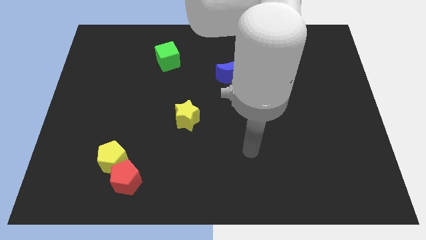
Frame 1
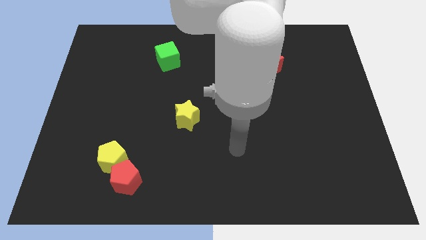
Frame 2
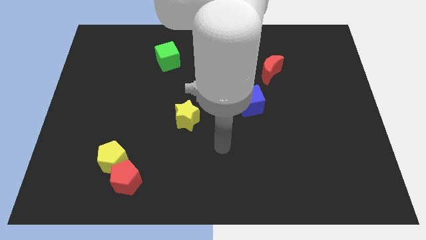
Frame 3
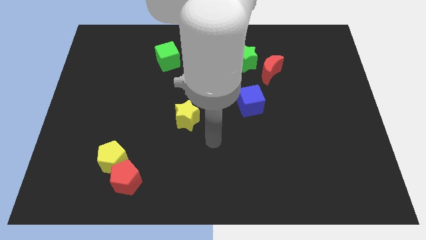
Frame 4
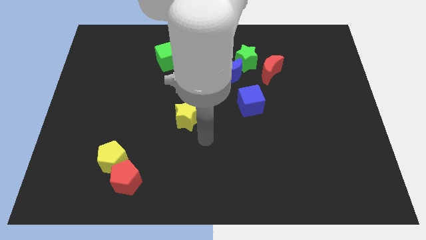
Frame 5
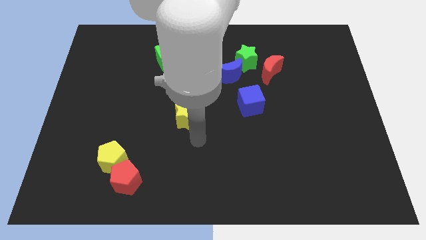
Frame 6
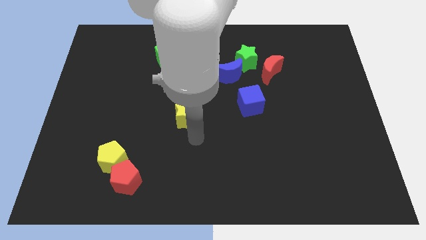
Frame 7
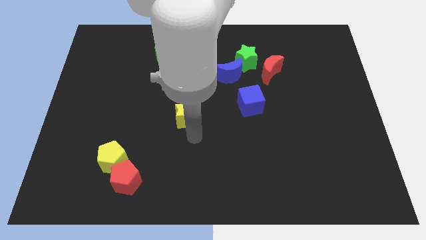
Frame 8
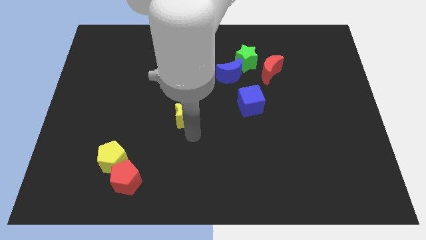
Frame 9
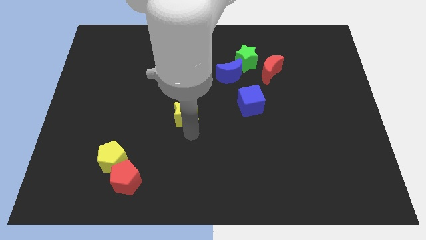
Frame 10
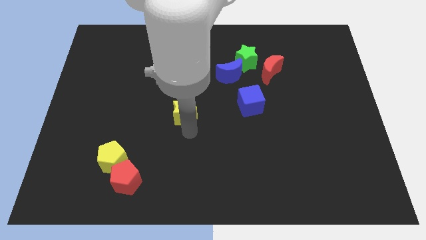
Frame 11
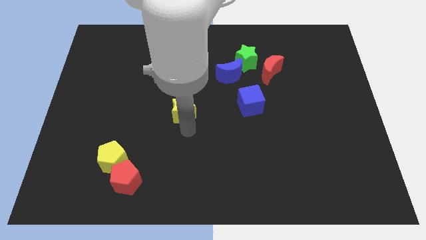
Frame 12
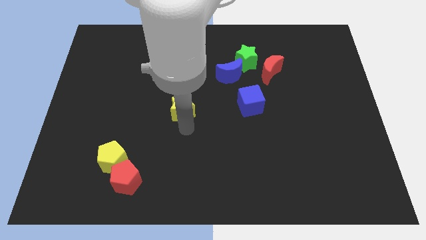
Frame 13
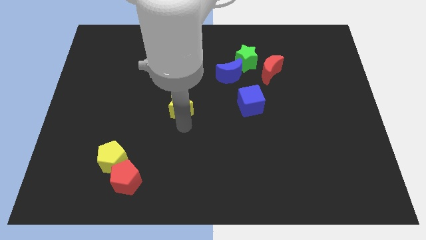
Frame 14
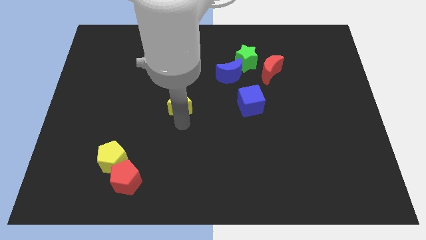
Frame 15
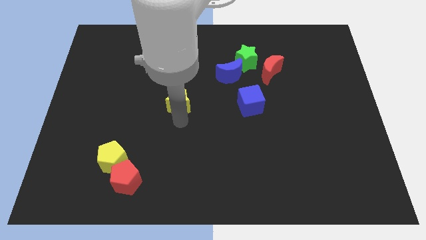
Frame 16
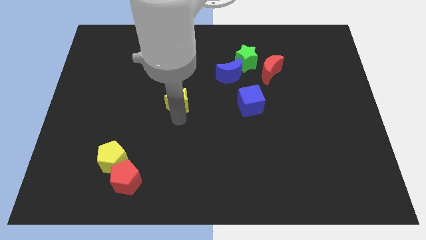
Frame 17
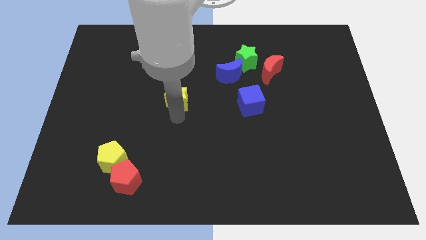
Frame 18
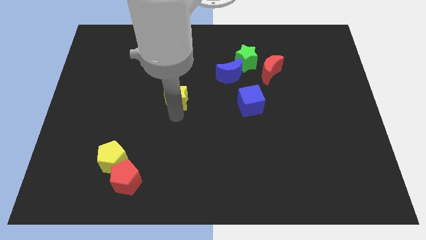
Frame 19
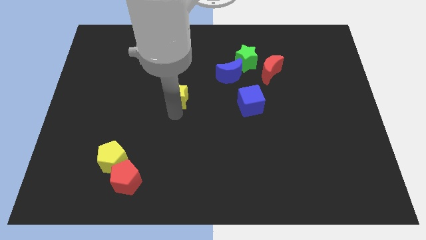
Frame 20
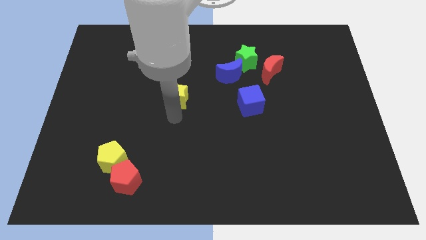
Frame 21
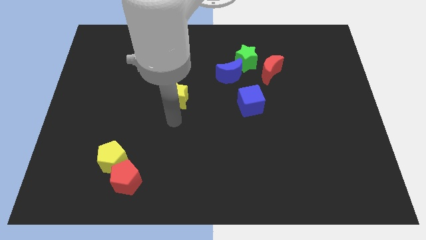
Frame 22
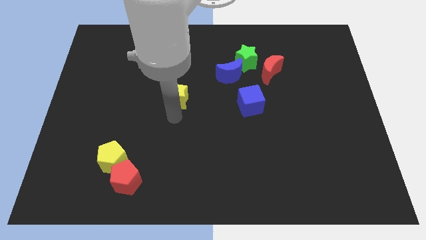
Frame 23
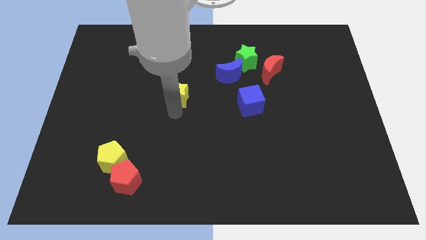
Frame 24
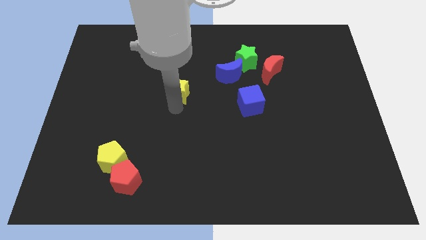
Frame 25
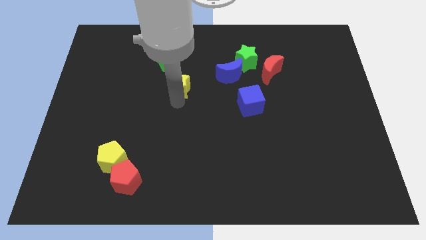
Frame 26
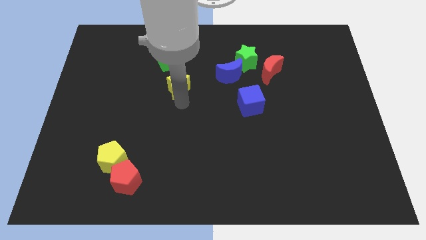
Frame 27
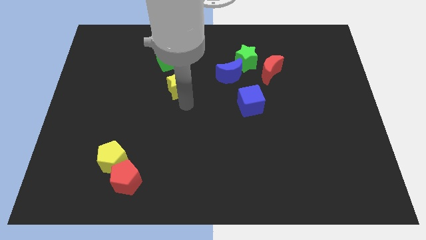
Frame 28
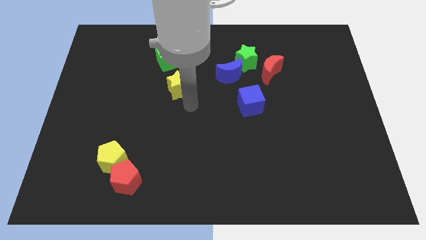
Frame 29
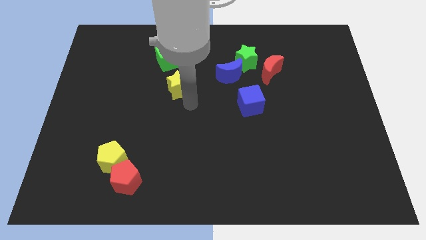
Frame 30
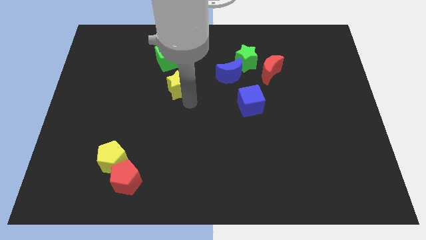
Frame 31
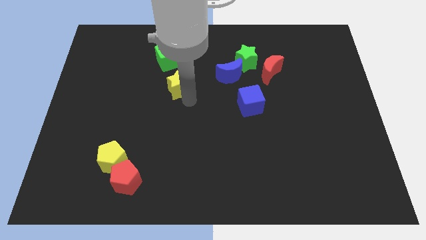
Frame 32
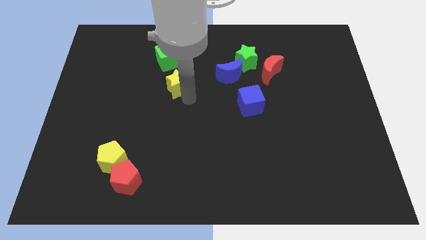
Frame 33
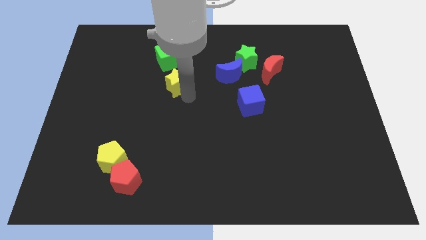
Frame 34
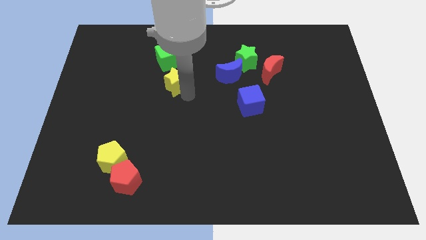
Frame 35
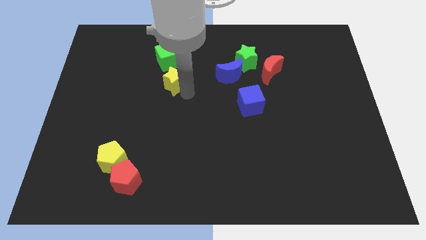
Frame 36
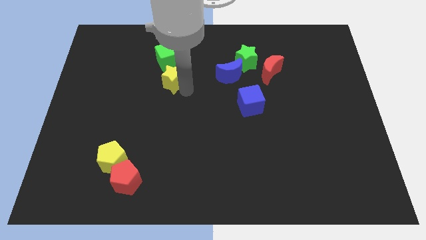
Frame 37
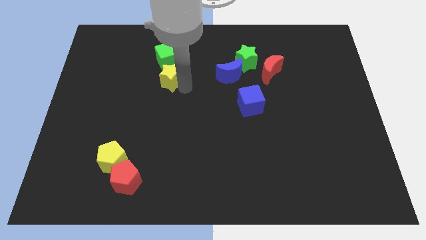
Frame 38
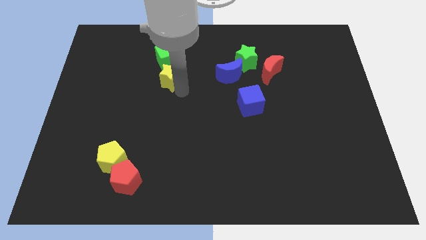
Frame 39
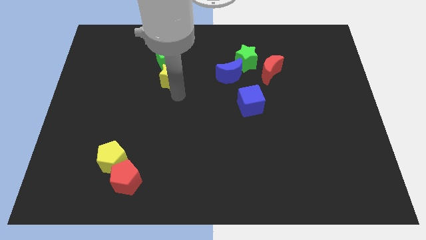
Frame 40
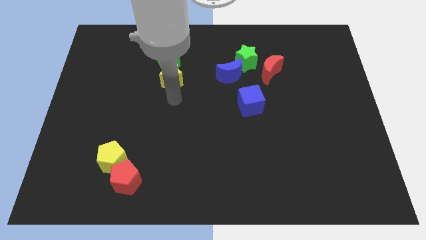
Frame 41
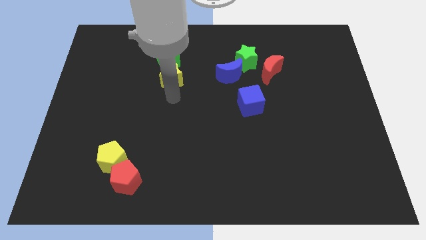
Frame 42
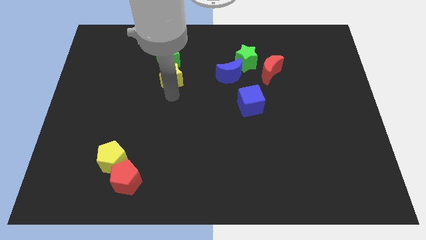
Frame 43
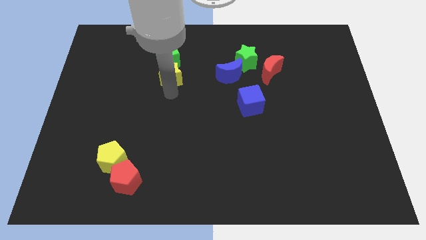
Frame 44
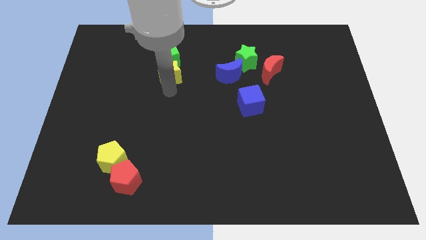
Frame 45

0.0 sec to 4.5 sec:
put the yellow star close to the green cube

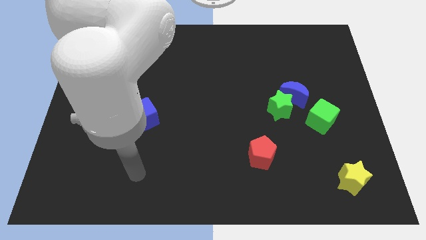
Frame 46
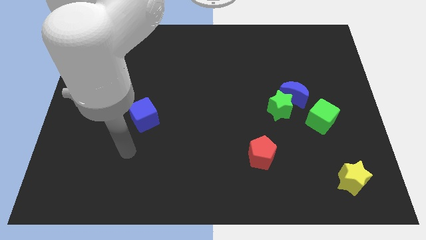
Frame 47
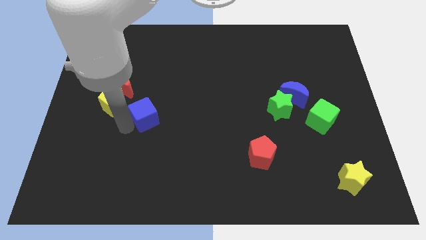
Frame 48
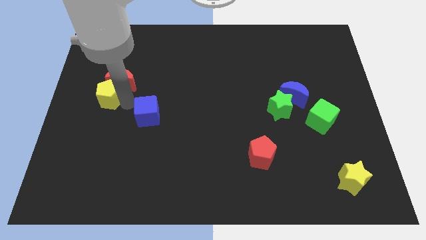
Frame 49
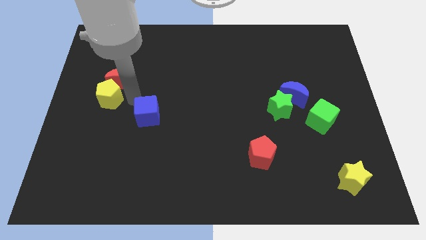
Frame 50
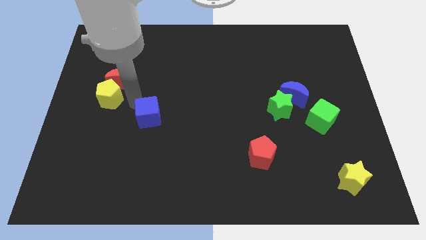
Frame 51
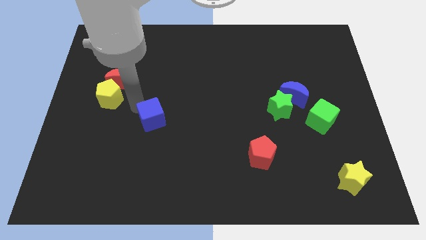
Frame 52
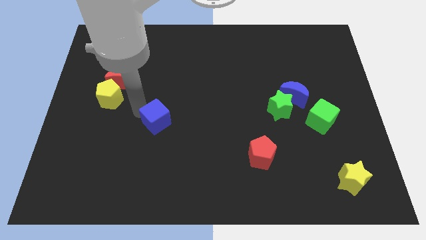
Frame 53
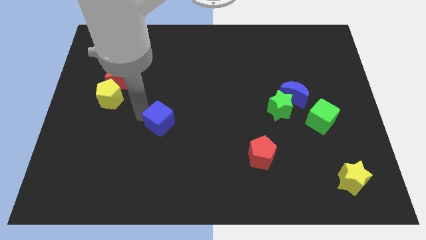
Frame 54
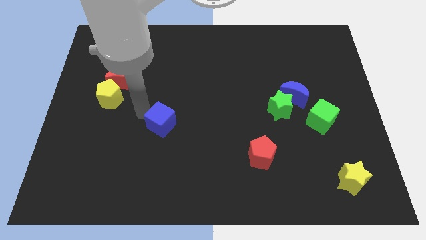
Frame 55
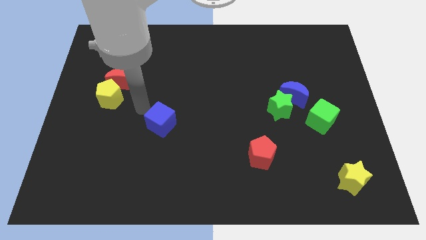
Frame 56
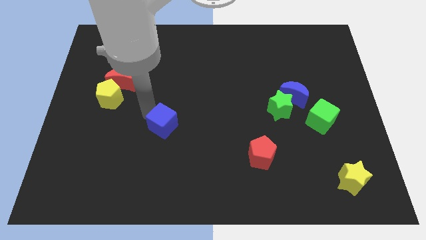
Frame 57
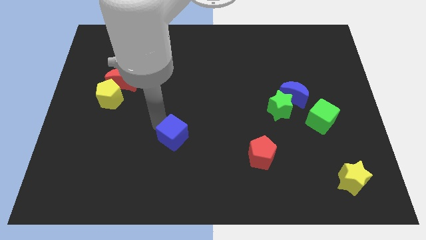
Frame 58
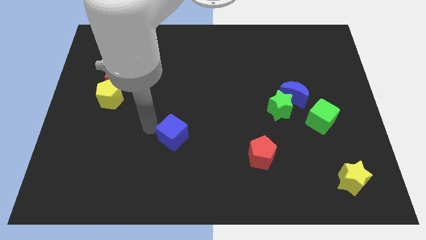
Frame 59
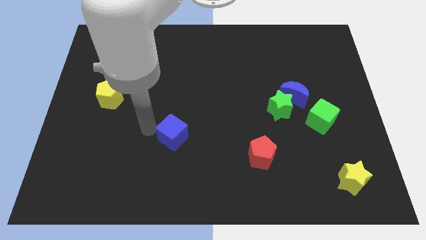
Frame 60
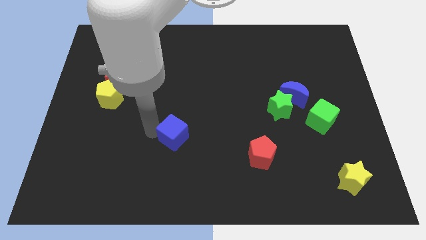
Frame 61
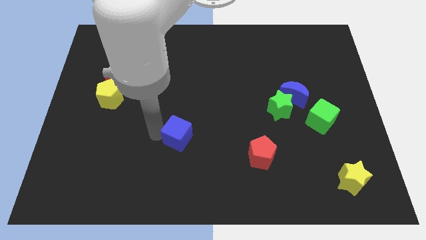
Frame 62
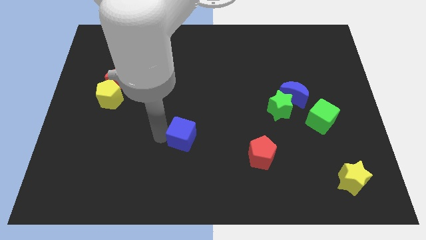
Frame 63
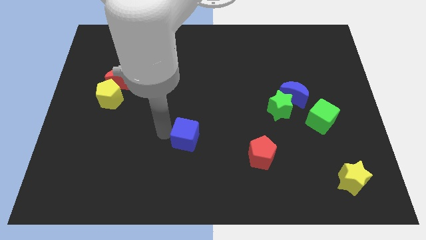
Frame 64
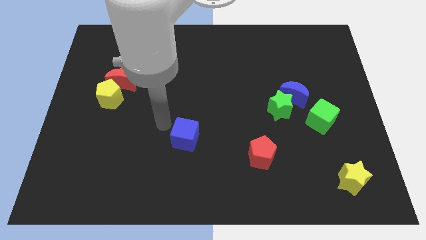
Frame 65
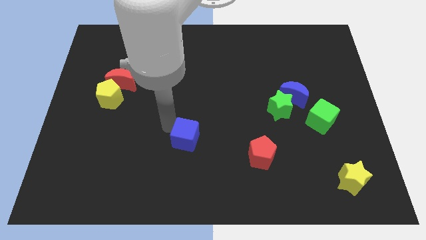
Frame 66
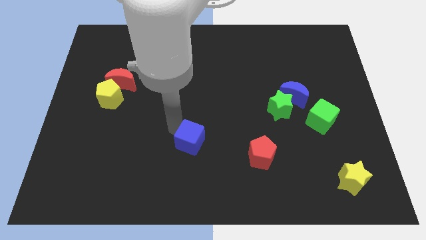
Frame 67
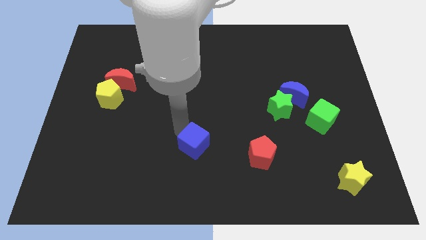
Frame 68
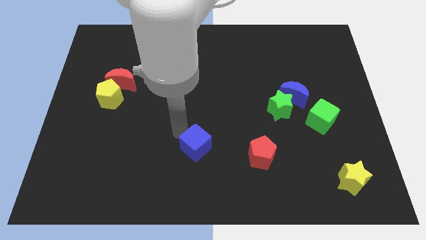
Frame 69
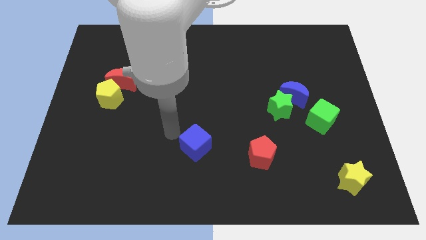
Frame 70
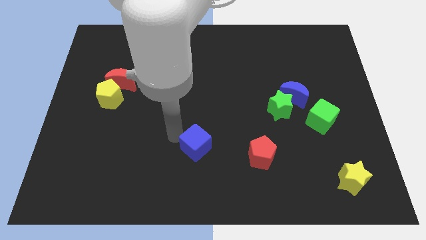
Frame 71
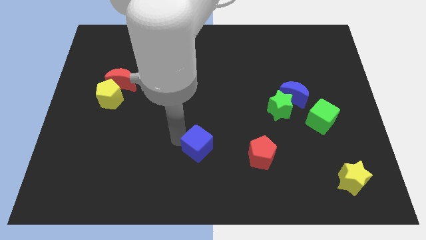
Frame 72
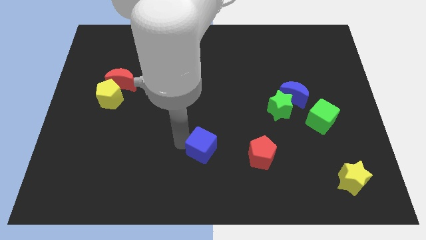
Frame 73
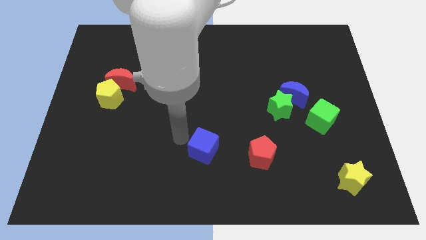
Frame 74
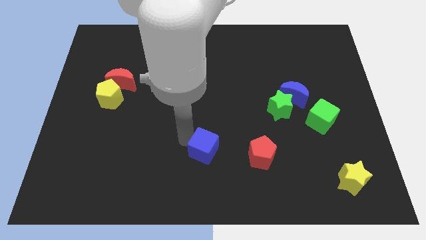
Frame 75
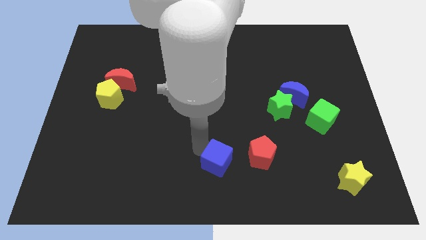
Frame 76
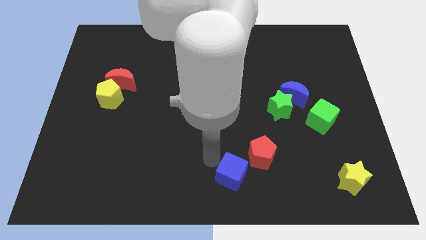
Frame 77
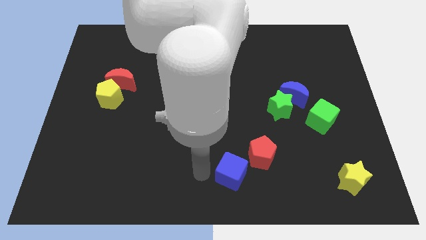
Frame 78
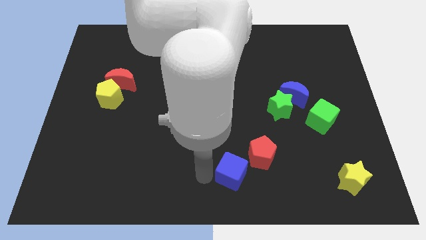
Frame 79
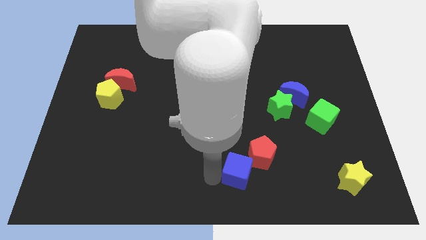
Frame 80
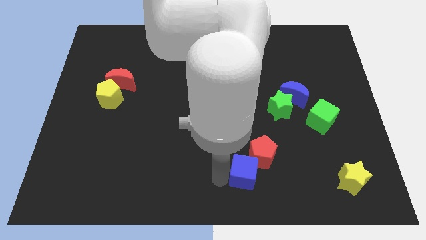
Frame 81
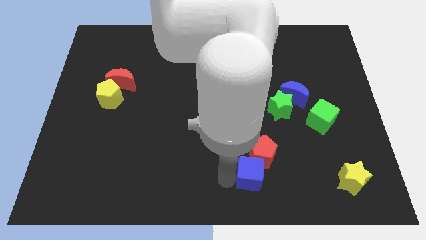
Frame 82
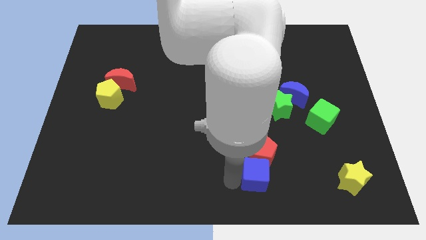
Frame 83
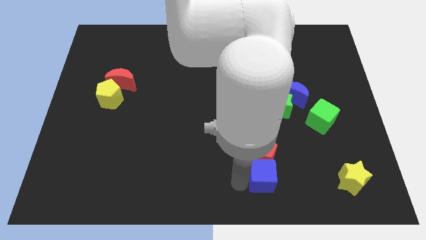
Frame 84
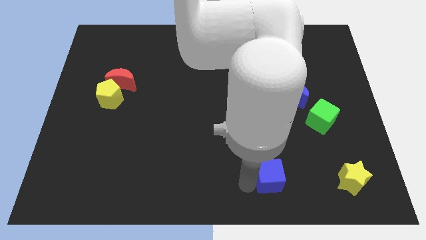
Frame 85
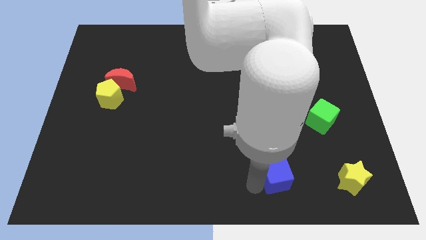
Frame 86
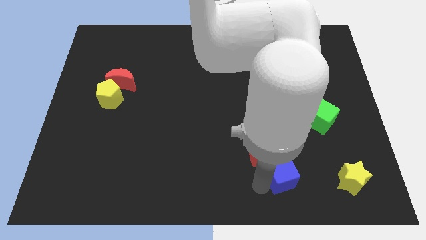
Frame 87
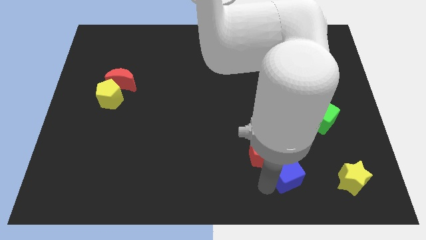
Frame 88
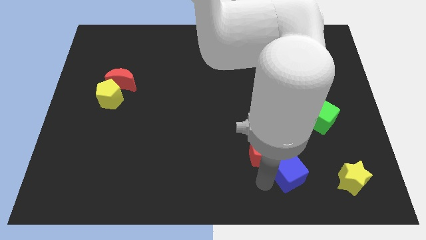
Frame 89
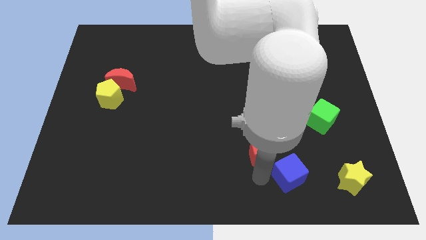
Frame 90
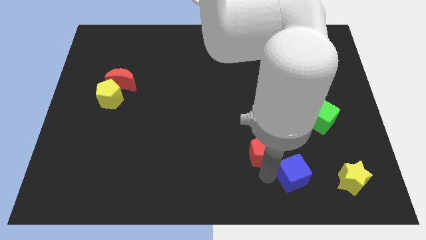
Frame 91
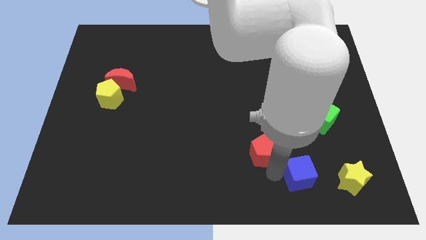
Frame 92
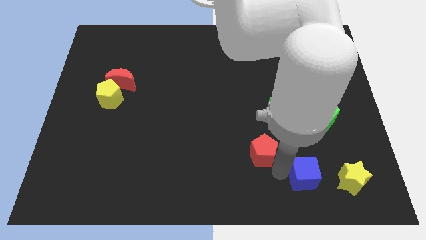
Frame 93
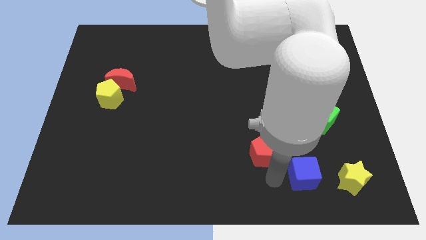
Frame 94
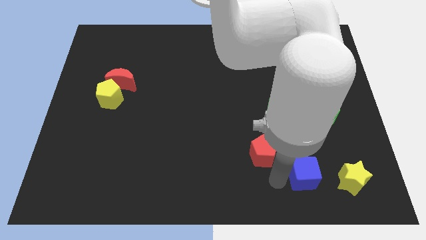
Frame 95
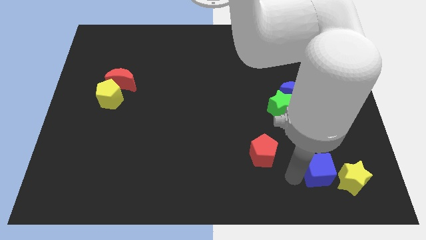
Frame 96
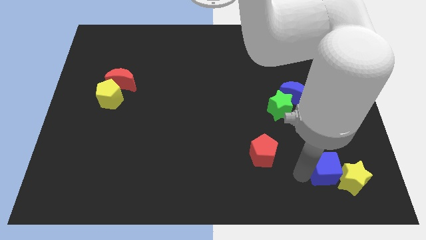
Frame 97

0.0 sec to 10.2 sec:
push the blue cube to the yellow star
